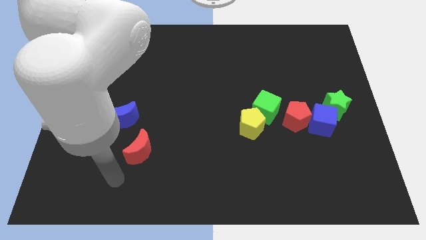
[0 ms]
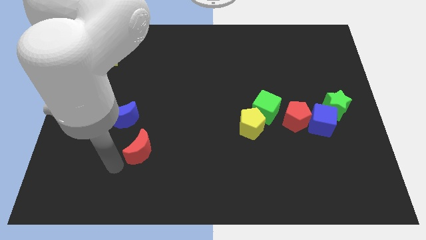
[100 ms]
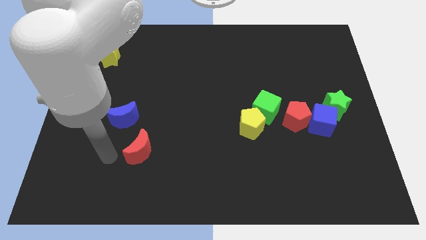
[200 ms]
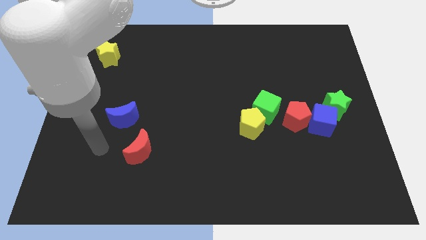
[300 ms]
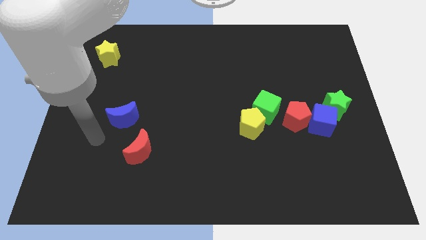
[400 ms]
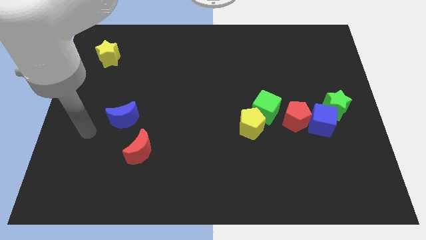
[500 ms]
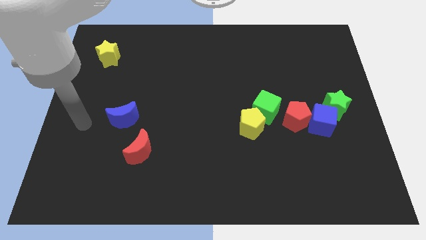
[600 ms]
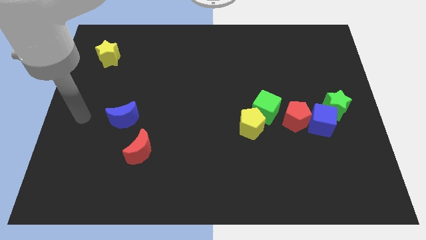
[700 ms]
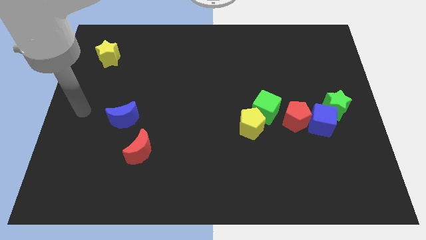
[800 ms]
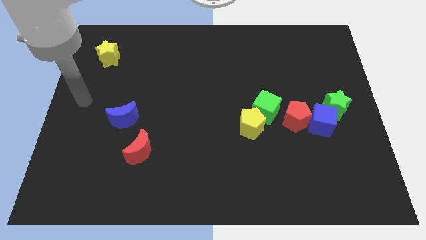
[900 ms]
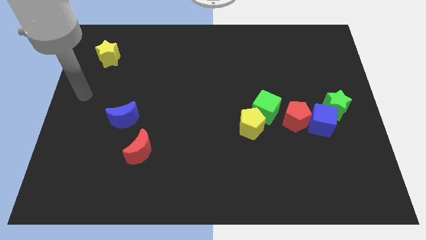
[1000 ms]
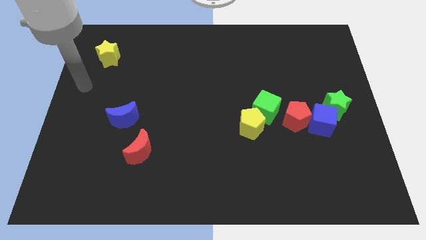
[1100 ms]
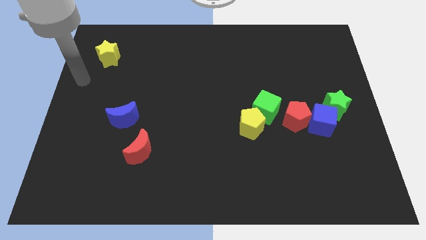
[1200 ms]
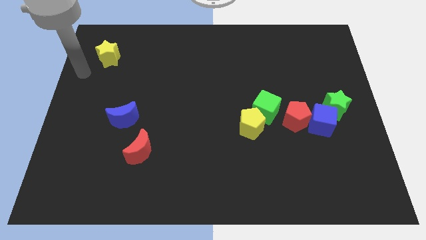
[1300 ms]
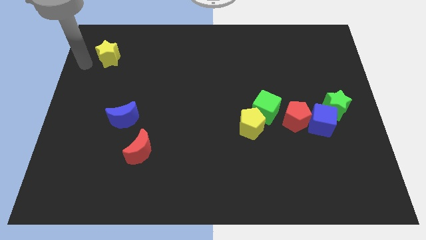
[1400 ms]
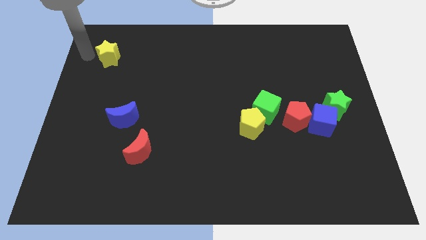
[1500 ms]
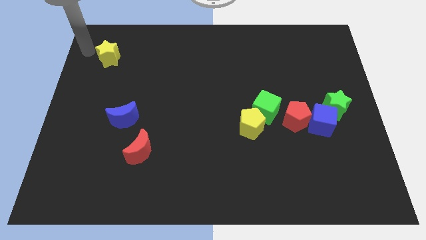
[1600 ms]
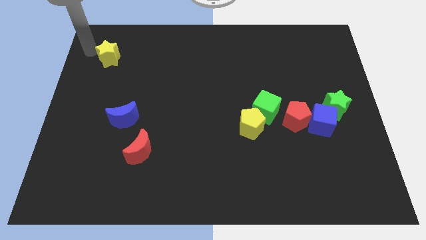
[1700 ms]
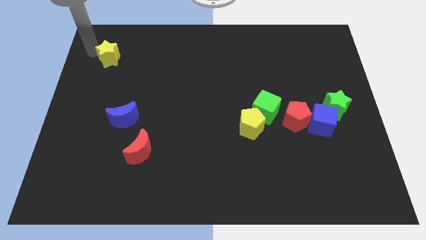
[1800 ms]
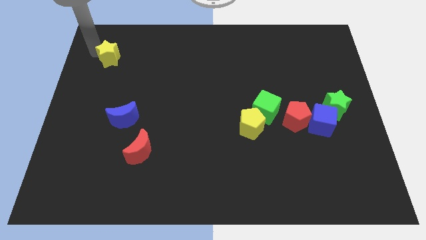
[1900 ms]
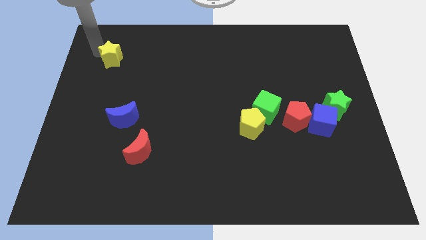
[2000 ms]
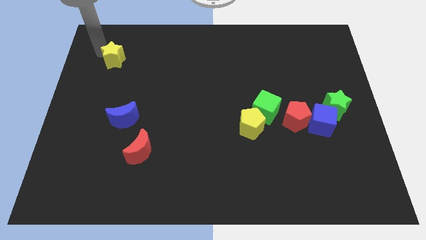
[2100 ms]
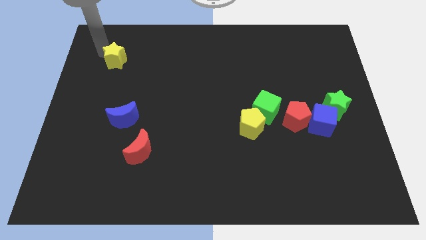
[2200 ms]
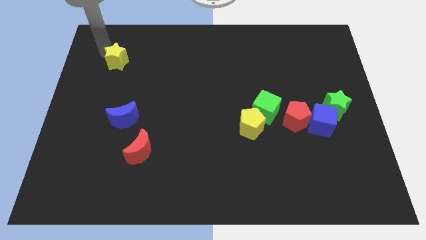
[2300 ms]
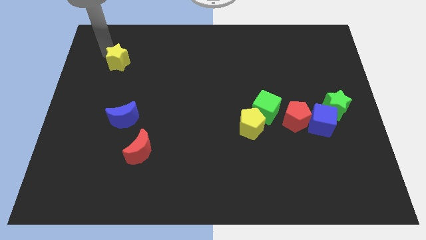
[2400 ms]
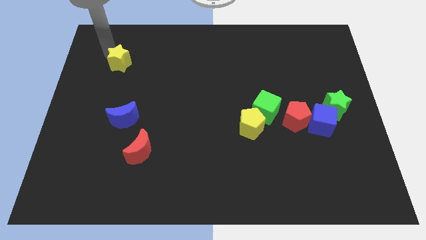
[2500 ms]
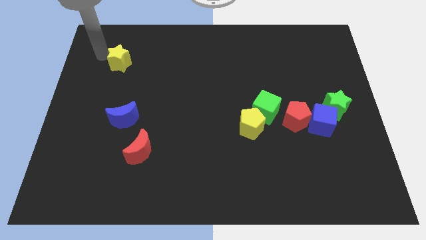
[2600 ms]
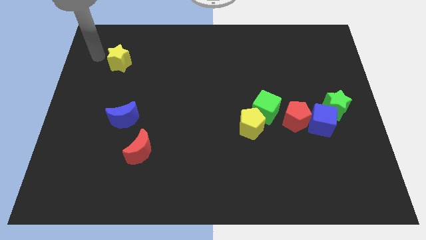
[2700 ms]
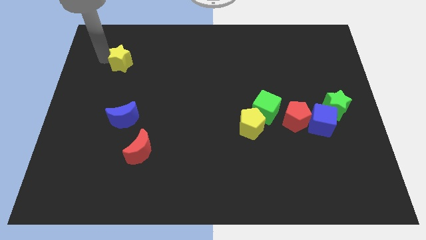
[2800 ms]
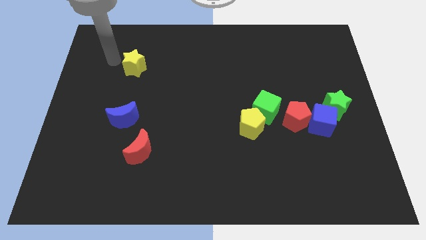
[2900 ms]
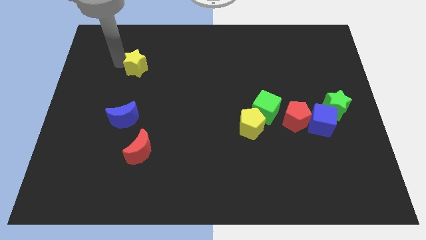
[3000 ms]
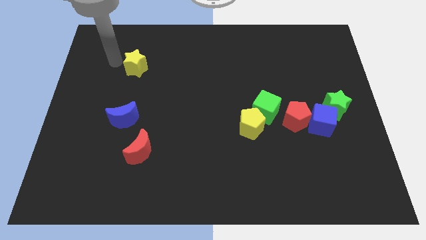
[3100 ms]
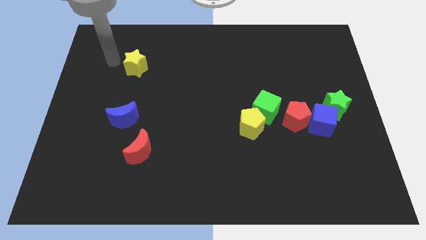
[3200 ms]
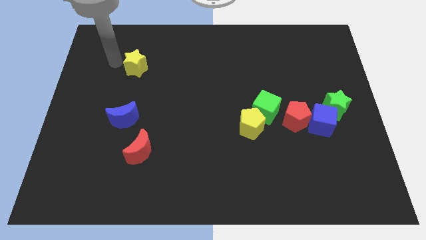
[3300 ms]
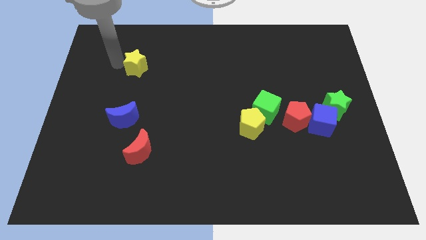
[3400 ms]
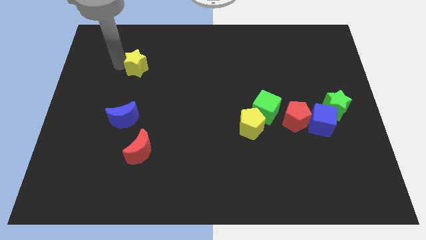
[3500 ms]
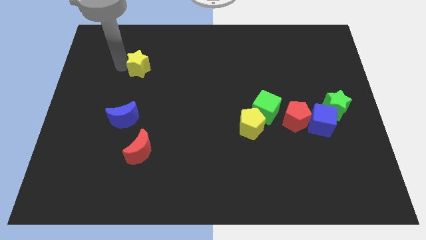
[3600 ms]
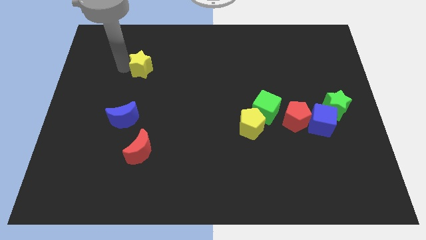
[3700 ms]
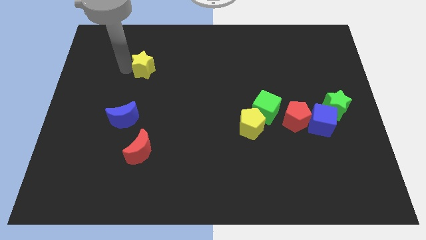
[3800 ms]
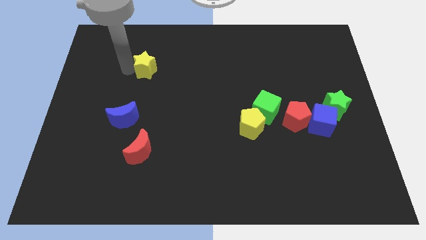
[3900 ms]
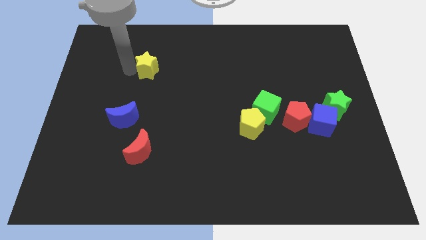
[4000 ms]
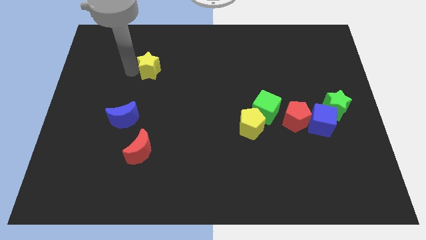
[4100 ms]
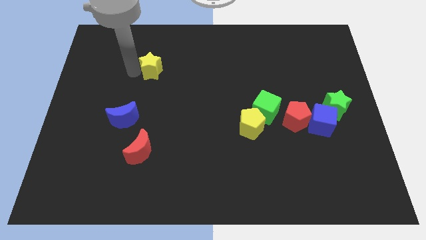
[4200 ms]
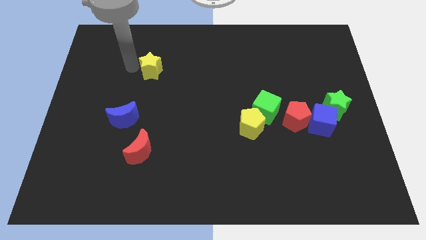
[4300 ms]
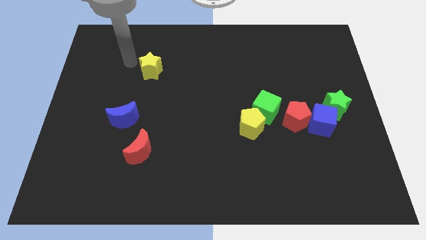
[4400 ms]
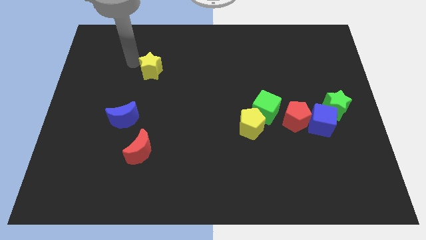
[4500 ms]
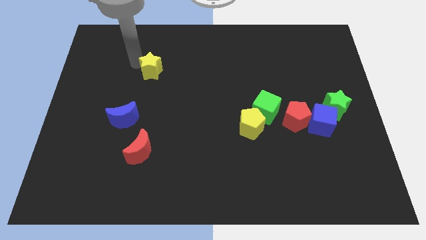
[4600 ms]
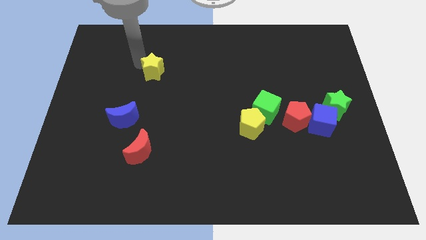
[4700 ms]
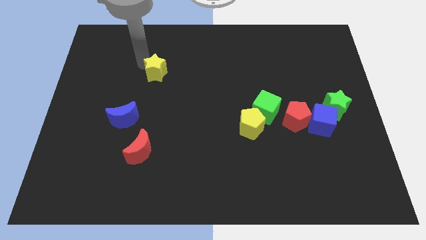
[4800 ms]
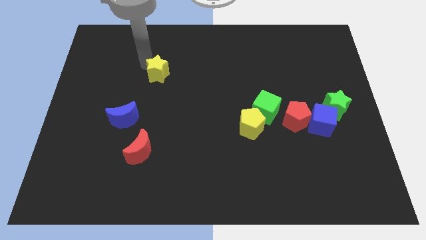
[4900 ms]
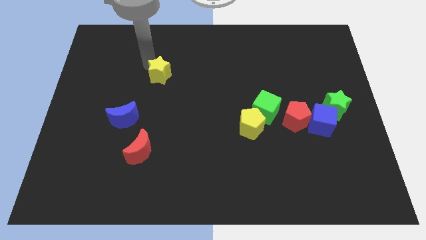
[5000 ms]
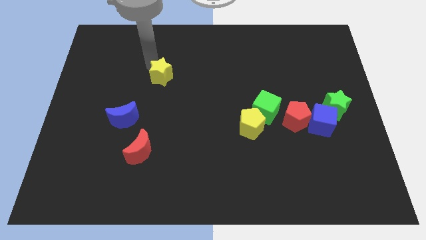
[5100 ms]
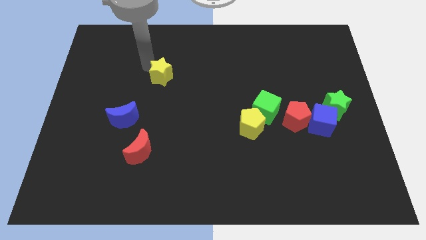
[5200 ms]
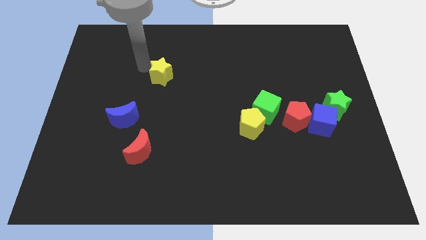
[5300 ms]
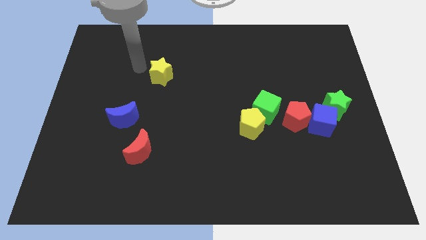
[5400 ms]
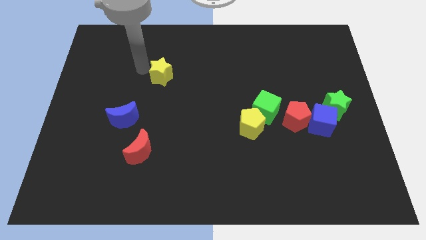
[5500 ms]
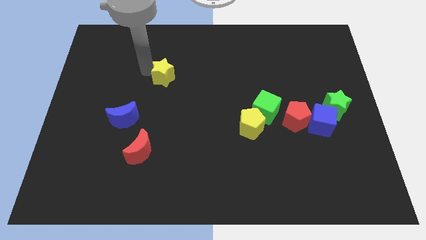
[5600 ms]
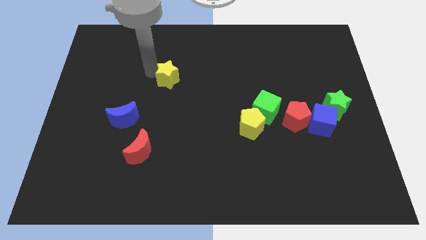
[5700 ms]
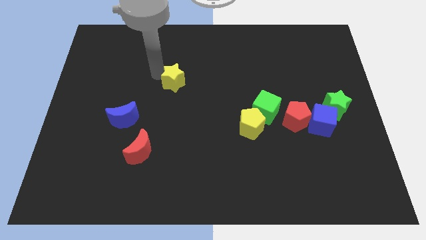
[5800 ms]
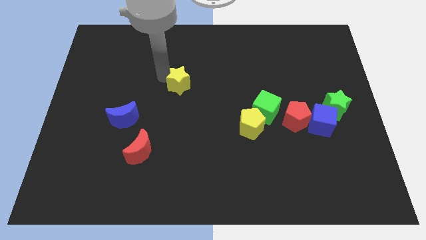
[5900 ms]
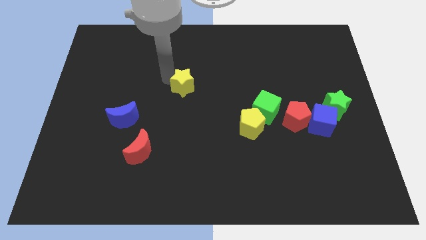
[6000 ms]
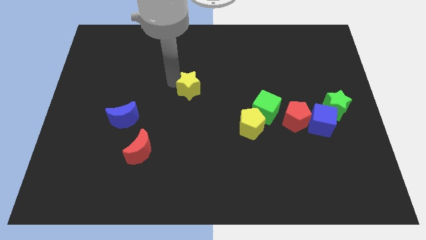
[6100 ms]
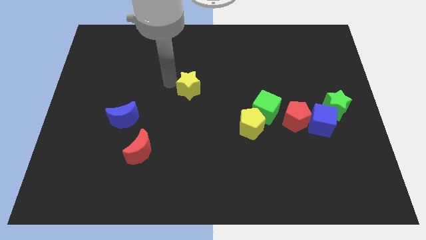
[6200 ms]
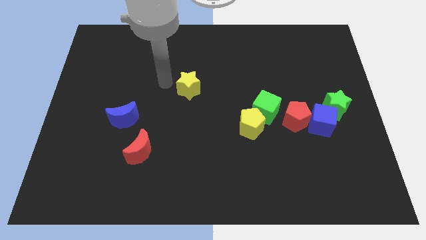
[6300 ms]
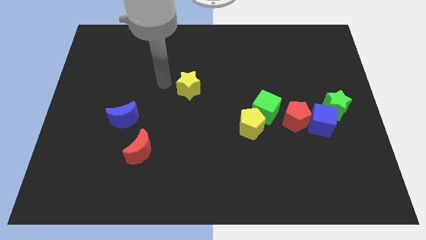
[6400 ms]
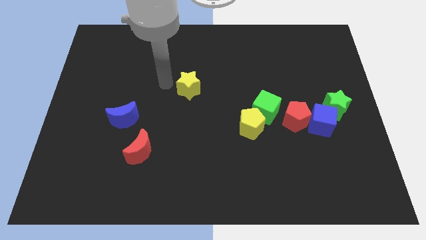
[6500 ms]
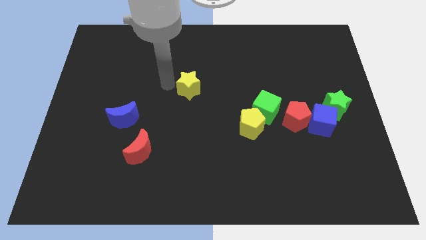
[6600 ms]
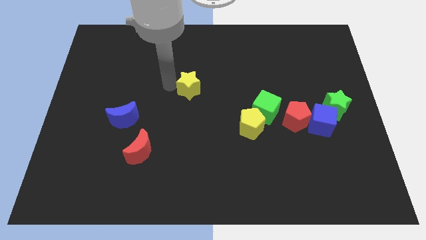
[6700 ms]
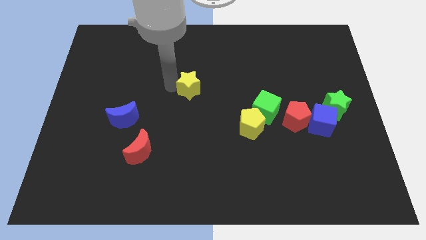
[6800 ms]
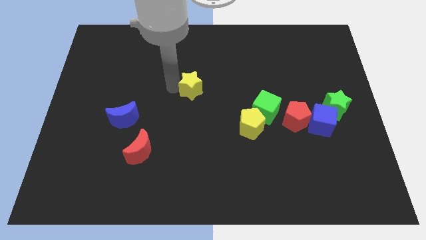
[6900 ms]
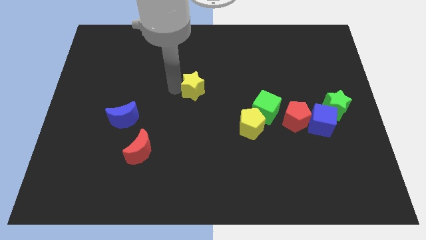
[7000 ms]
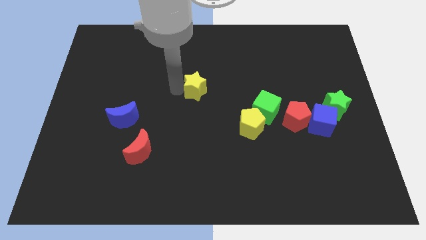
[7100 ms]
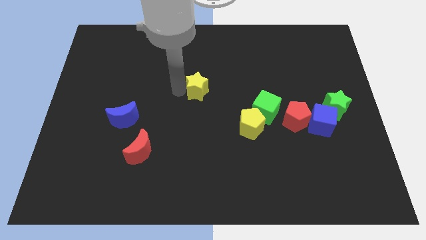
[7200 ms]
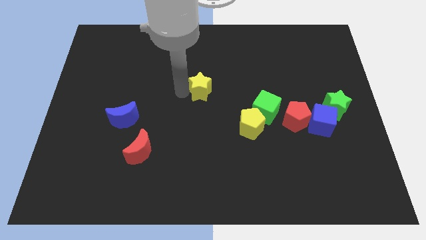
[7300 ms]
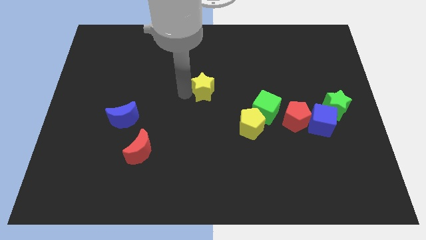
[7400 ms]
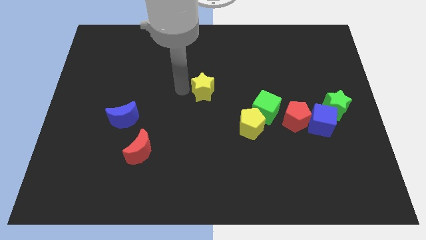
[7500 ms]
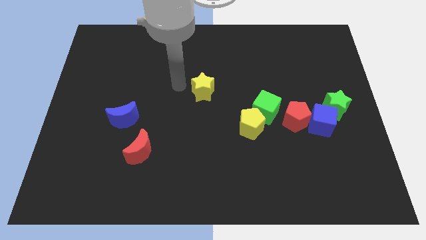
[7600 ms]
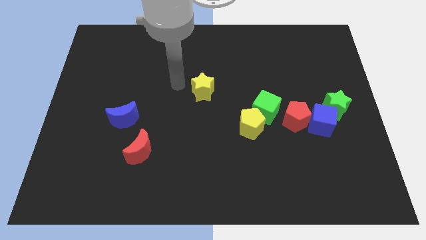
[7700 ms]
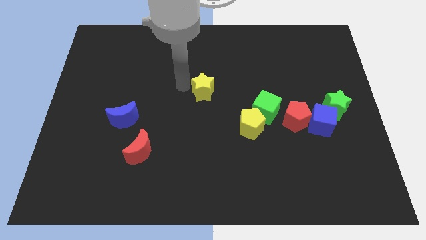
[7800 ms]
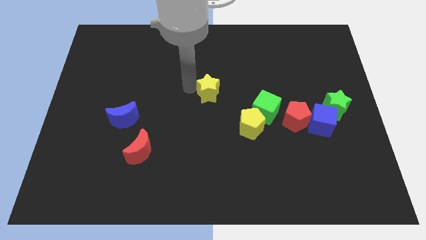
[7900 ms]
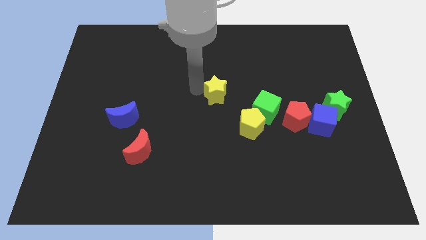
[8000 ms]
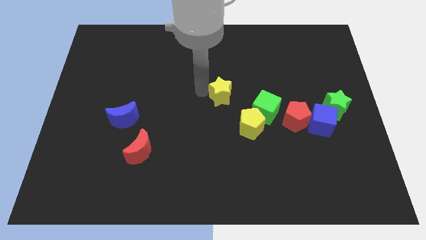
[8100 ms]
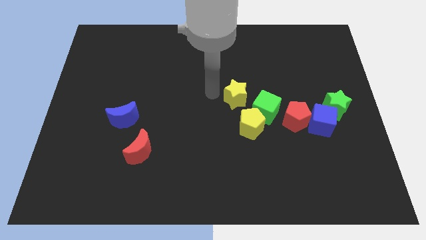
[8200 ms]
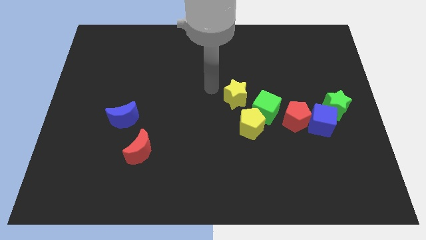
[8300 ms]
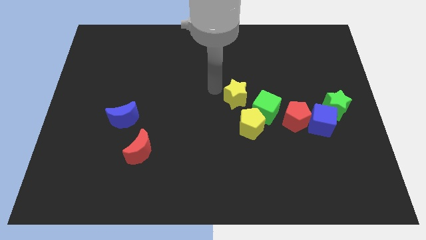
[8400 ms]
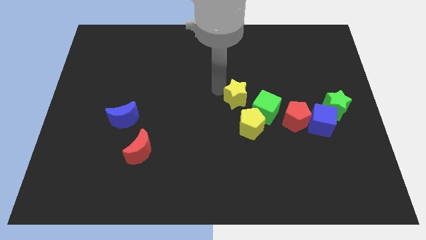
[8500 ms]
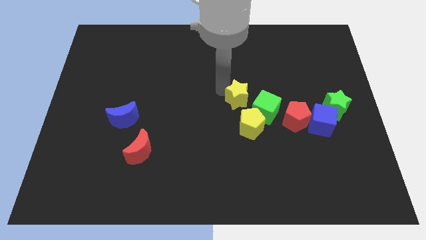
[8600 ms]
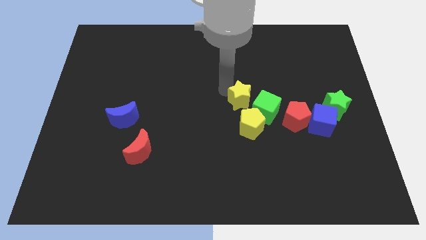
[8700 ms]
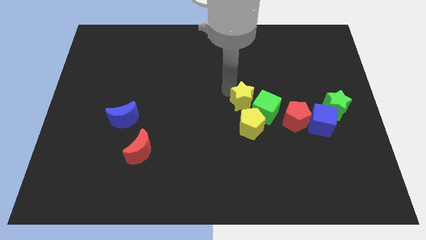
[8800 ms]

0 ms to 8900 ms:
push the yellow star to the green cube
